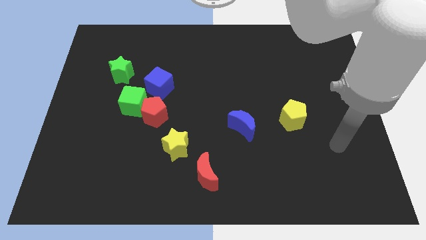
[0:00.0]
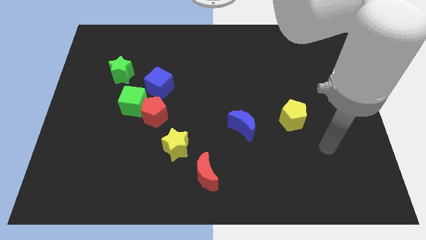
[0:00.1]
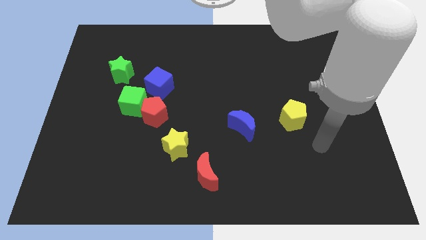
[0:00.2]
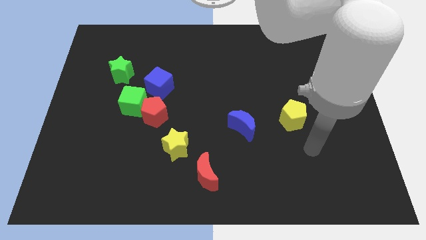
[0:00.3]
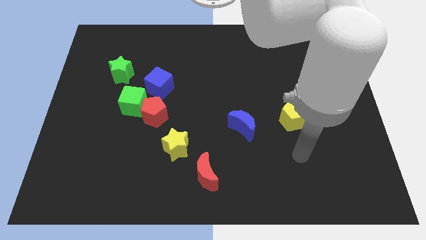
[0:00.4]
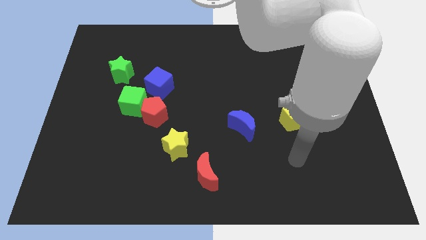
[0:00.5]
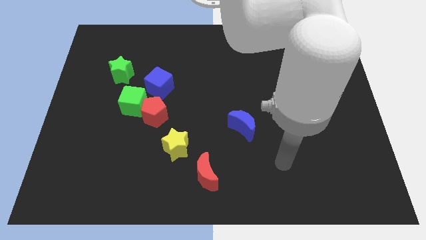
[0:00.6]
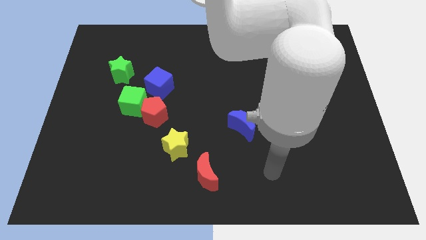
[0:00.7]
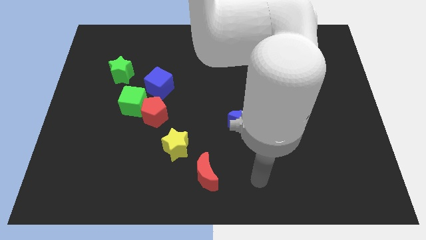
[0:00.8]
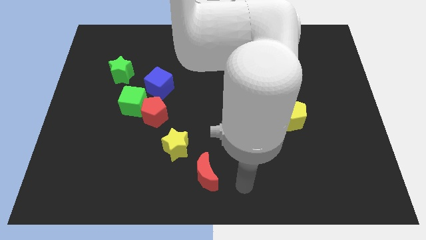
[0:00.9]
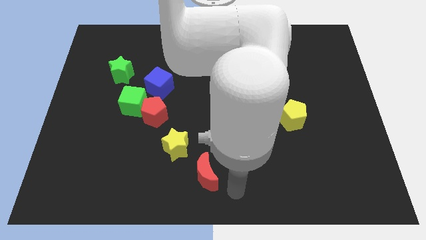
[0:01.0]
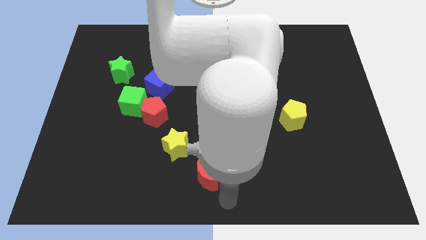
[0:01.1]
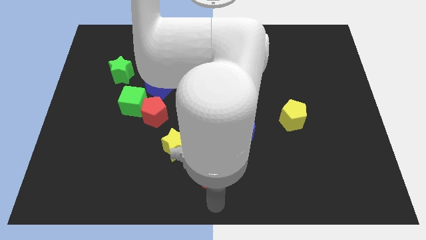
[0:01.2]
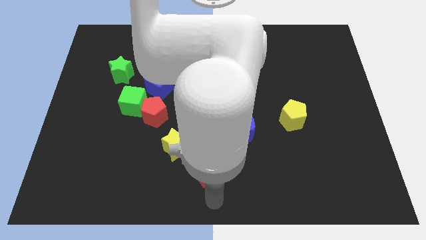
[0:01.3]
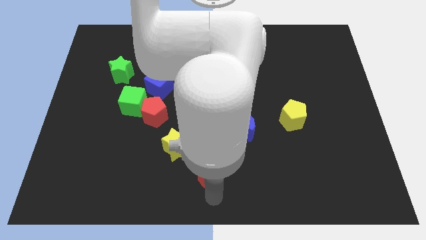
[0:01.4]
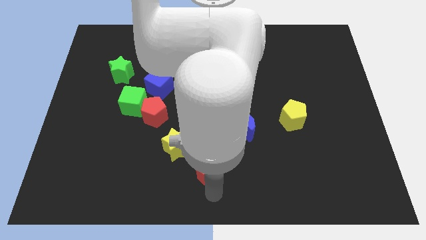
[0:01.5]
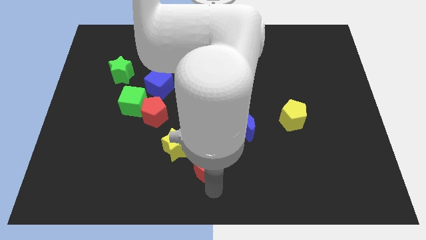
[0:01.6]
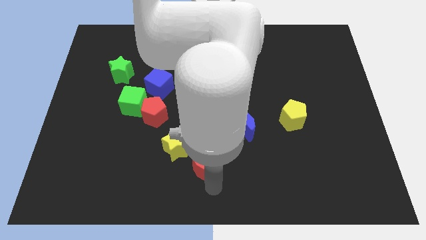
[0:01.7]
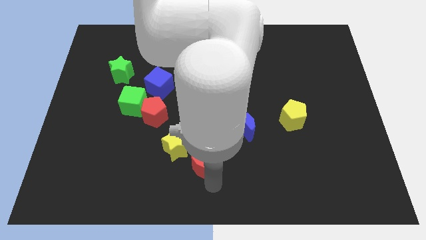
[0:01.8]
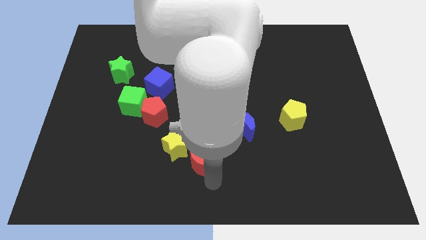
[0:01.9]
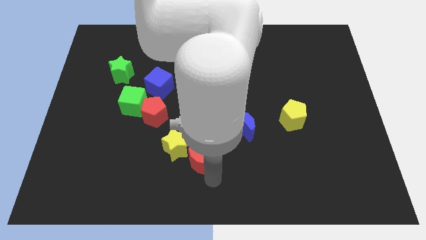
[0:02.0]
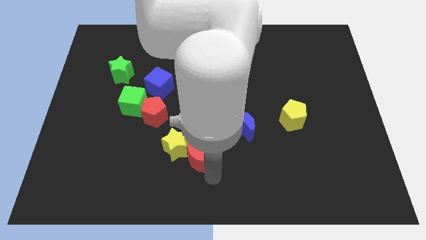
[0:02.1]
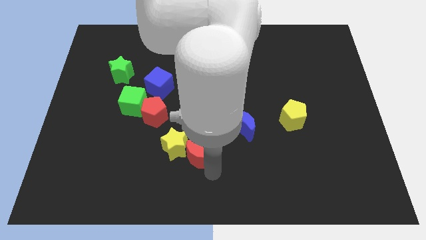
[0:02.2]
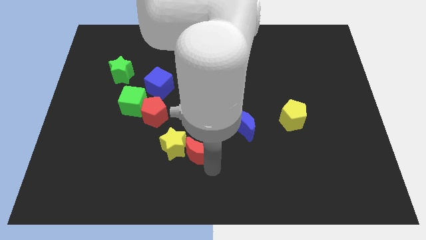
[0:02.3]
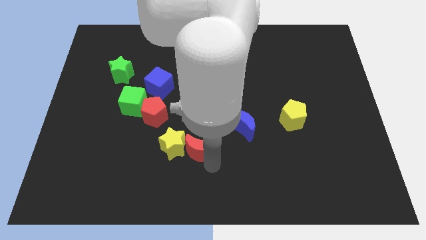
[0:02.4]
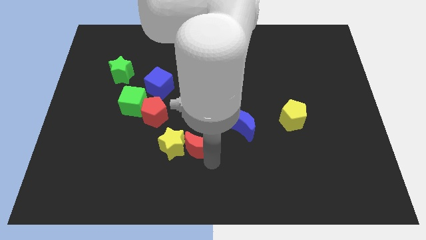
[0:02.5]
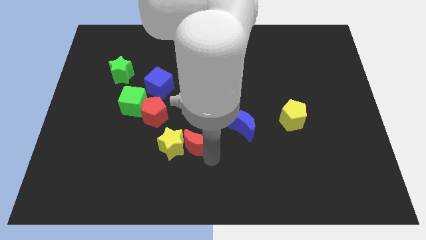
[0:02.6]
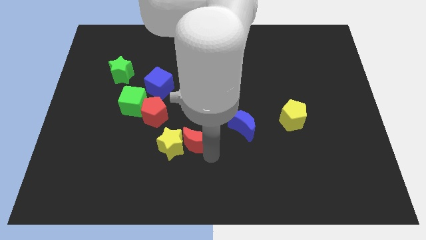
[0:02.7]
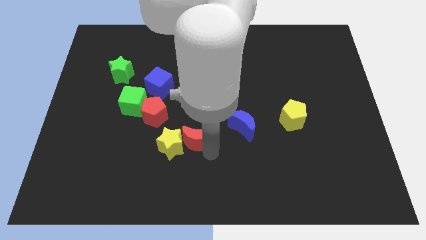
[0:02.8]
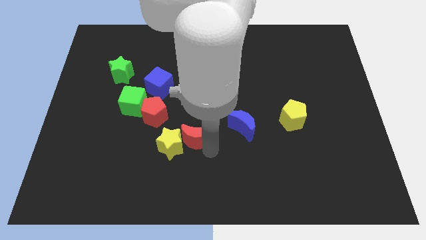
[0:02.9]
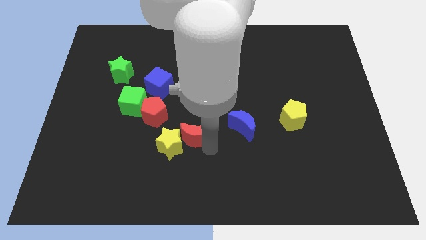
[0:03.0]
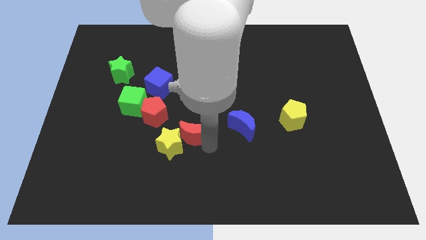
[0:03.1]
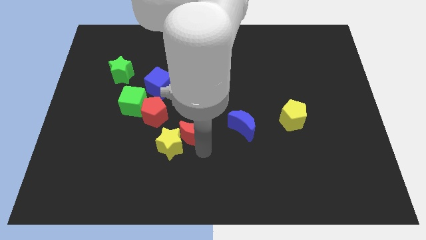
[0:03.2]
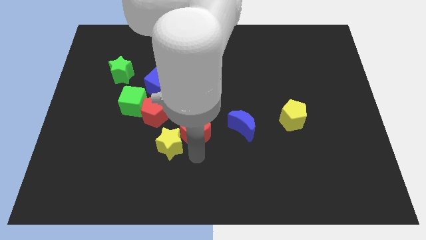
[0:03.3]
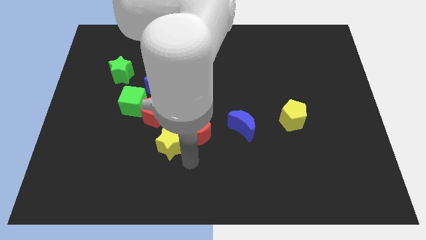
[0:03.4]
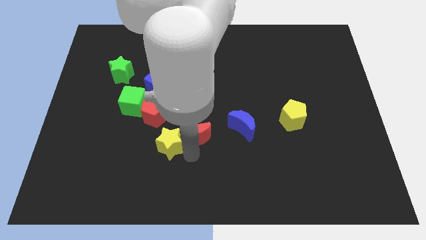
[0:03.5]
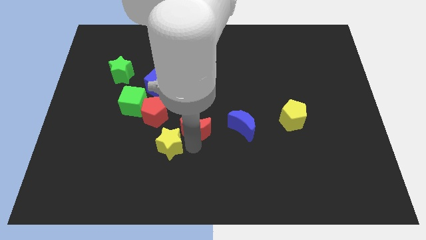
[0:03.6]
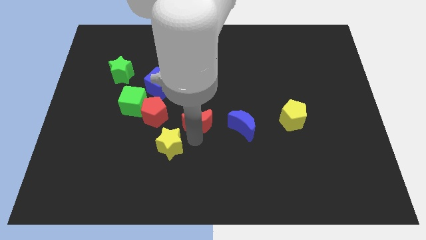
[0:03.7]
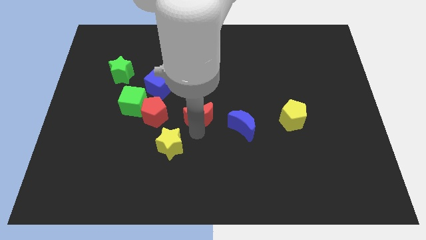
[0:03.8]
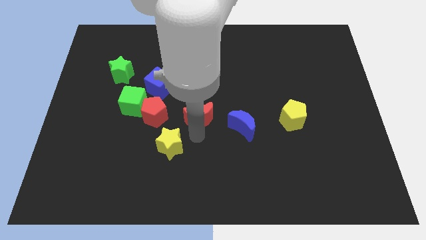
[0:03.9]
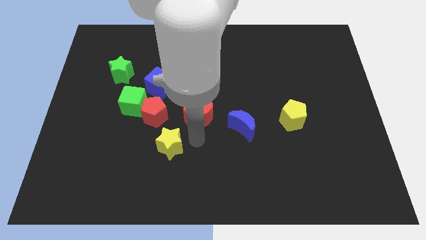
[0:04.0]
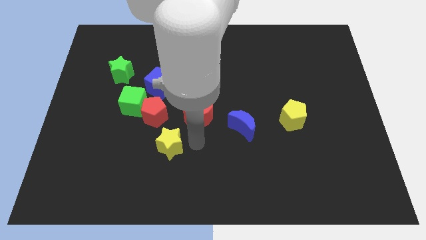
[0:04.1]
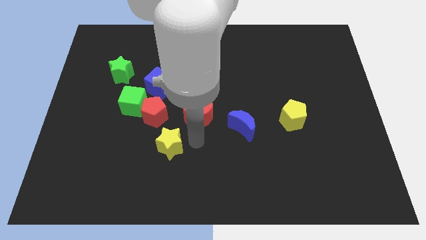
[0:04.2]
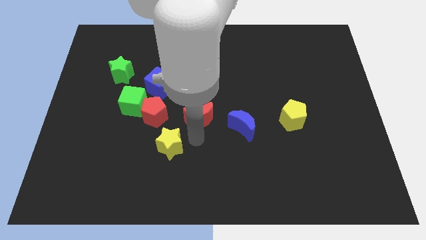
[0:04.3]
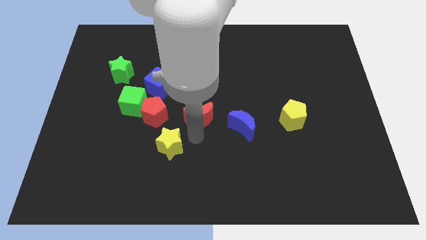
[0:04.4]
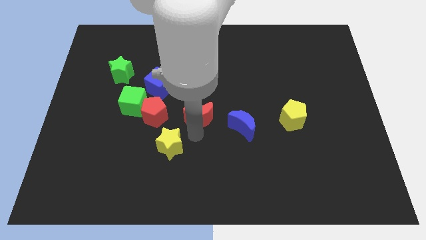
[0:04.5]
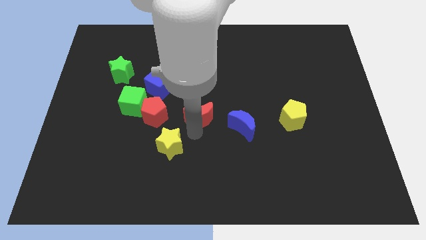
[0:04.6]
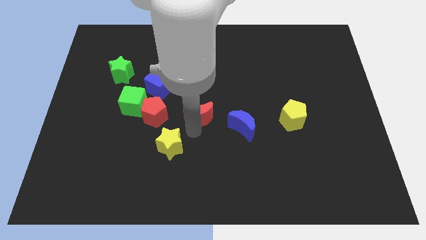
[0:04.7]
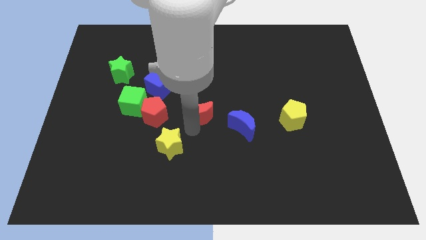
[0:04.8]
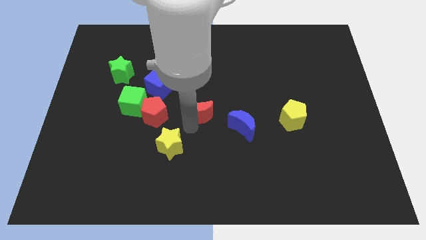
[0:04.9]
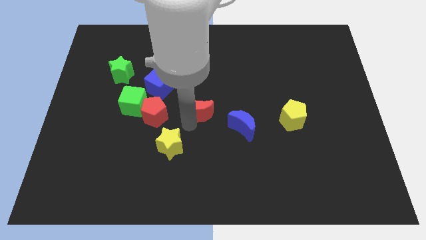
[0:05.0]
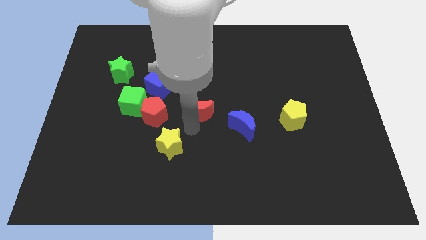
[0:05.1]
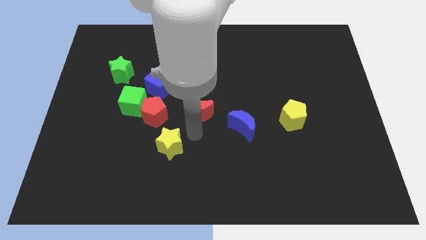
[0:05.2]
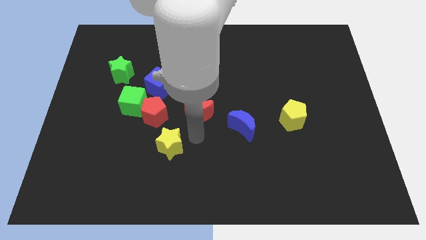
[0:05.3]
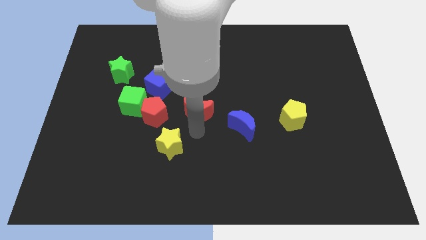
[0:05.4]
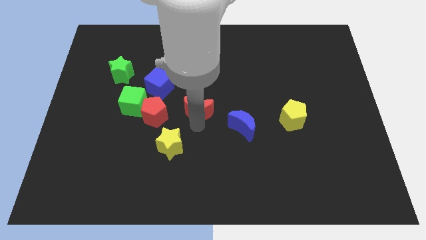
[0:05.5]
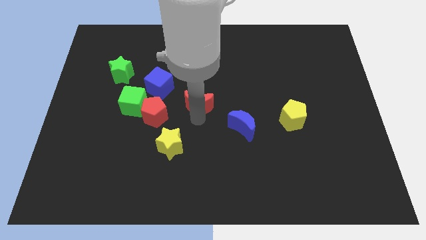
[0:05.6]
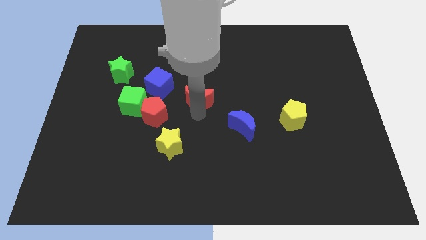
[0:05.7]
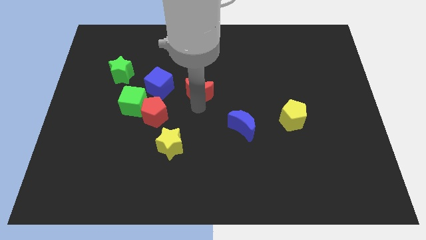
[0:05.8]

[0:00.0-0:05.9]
move the red moon up

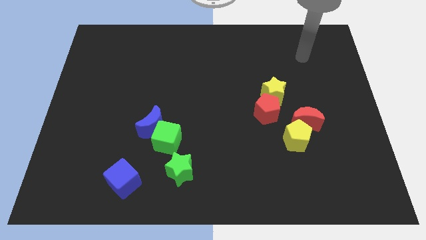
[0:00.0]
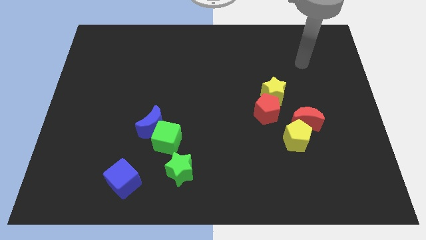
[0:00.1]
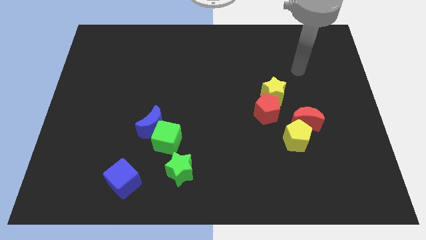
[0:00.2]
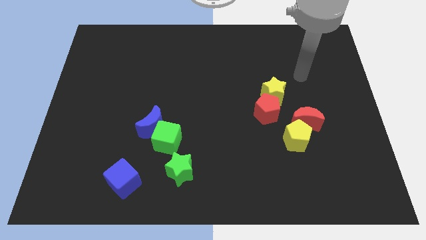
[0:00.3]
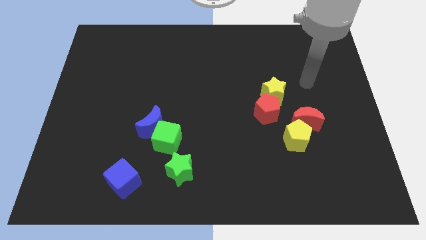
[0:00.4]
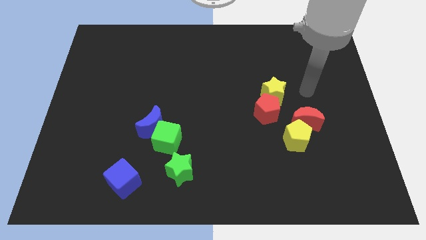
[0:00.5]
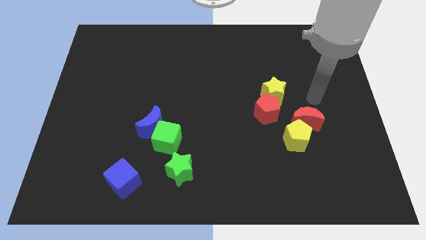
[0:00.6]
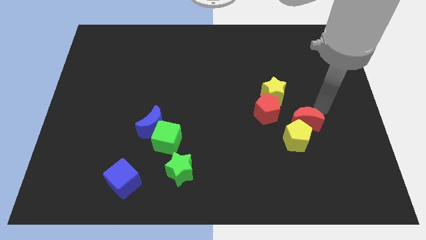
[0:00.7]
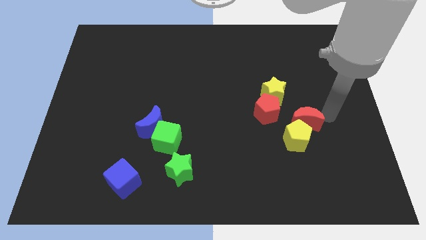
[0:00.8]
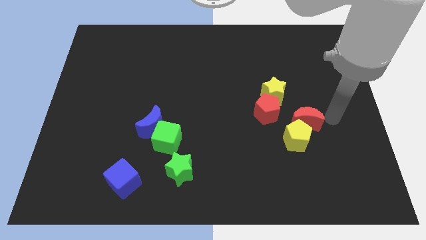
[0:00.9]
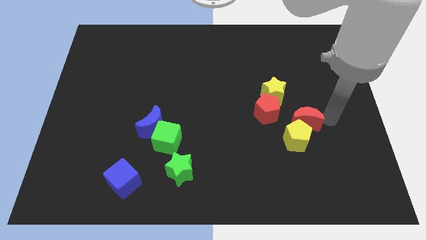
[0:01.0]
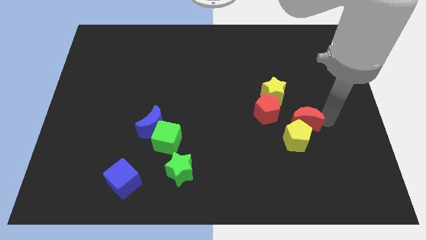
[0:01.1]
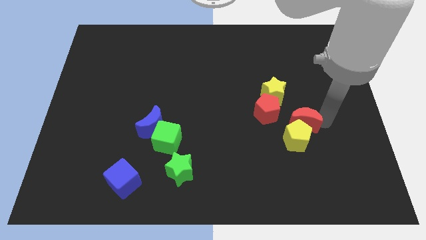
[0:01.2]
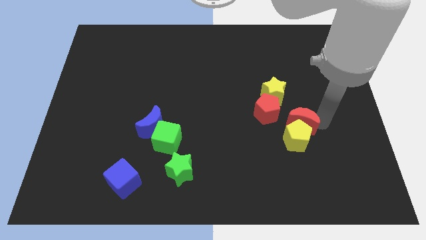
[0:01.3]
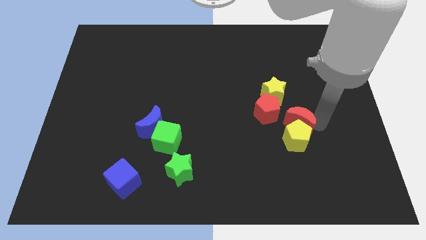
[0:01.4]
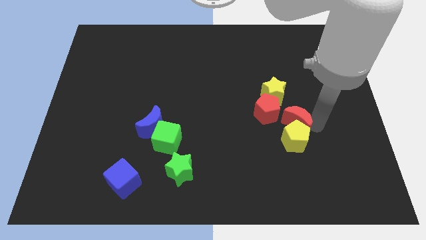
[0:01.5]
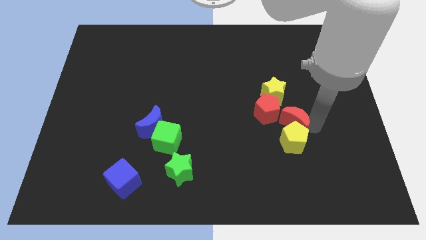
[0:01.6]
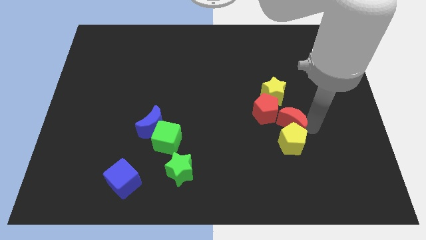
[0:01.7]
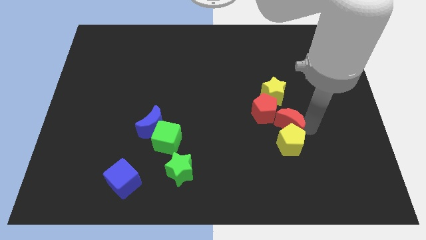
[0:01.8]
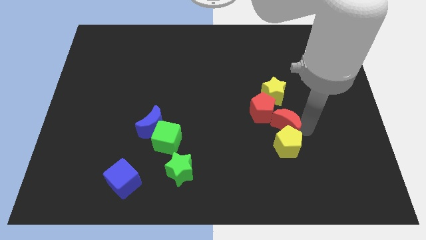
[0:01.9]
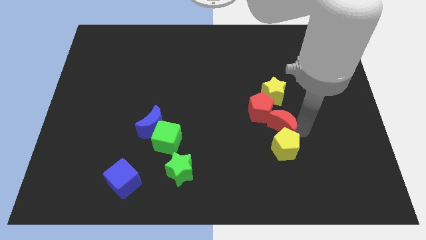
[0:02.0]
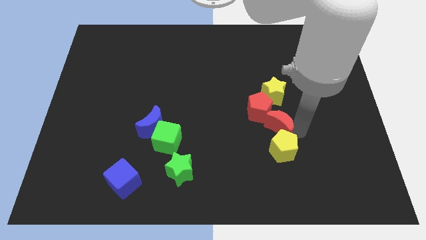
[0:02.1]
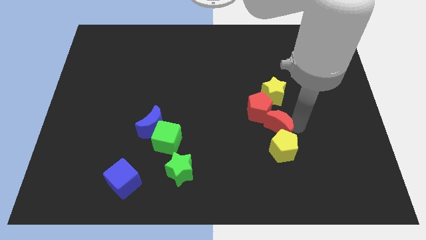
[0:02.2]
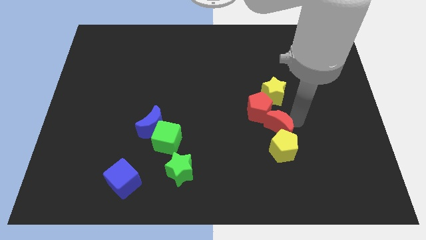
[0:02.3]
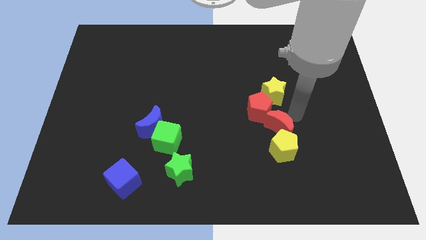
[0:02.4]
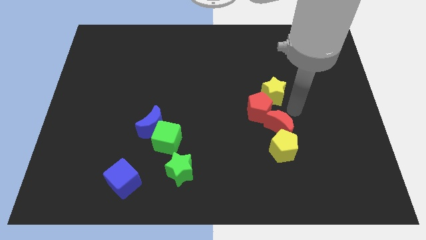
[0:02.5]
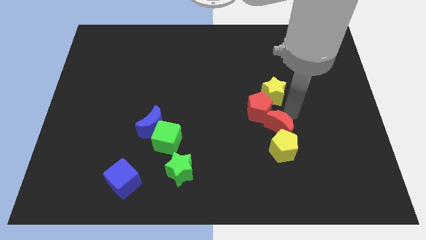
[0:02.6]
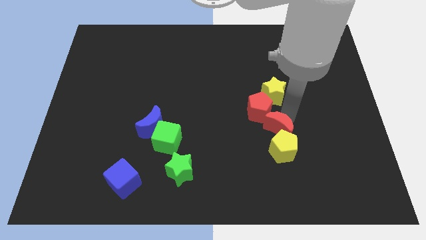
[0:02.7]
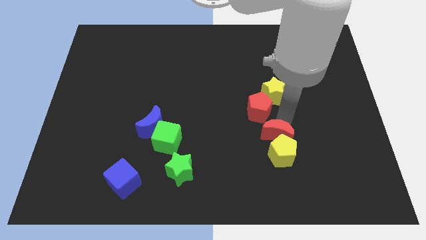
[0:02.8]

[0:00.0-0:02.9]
slide the red moon a little bit down and then left
